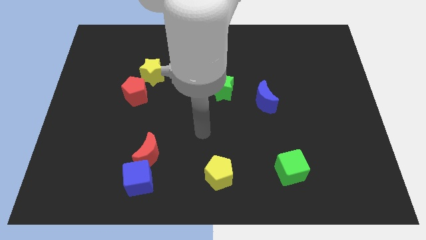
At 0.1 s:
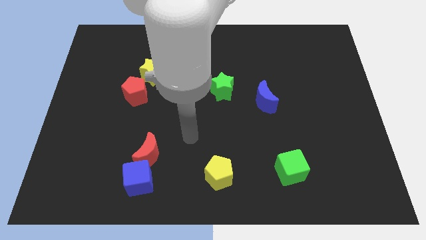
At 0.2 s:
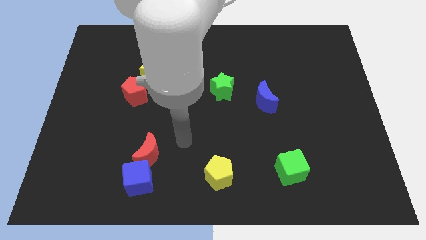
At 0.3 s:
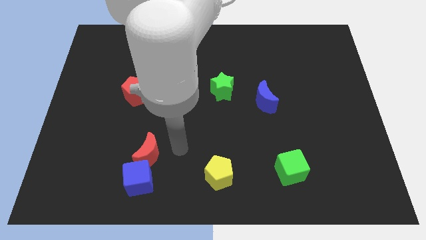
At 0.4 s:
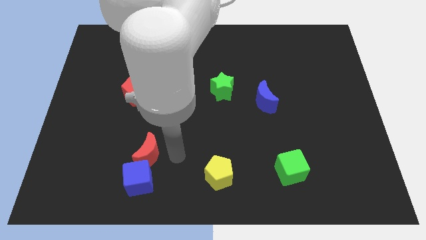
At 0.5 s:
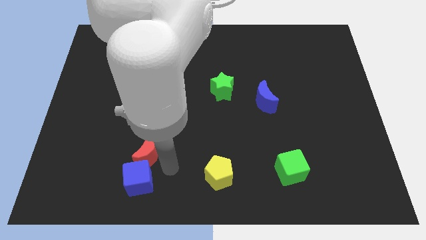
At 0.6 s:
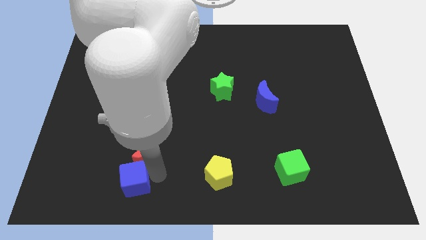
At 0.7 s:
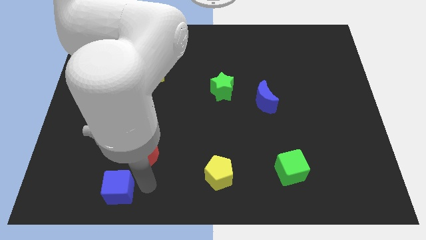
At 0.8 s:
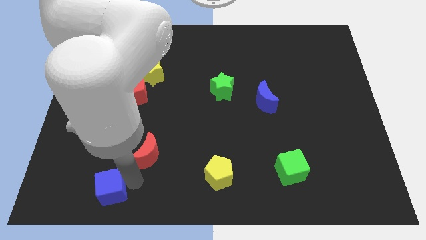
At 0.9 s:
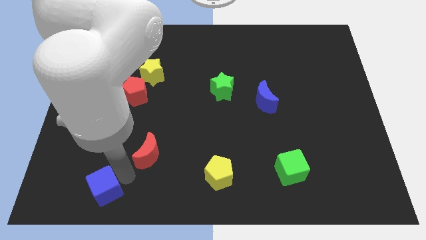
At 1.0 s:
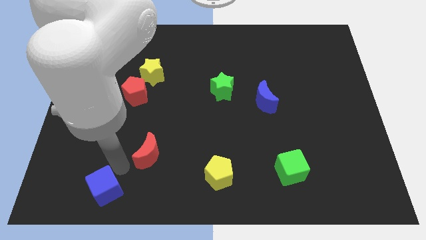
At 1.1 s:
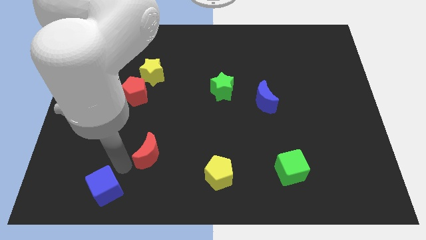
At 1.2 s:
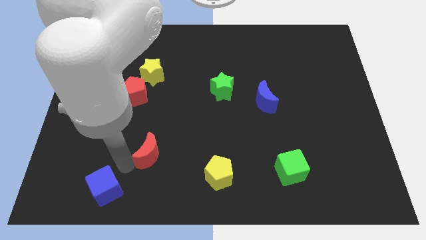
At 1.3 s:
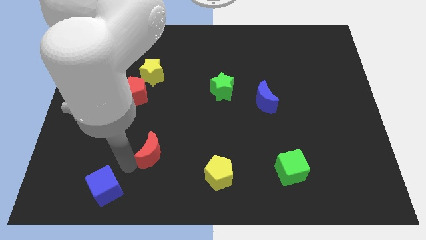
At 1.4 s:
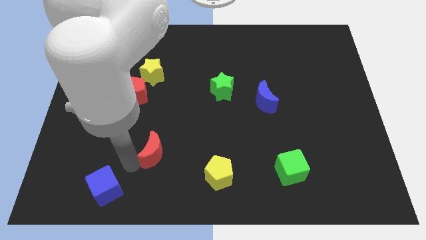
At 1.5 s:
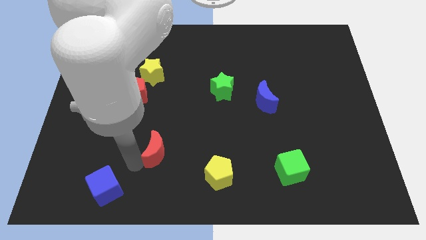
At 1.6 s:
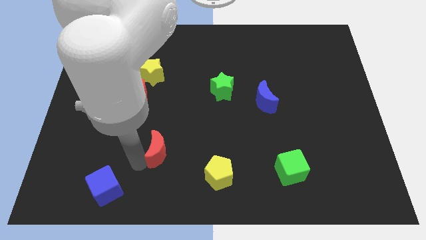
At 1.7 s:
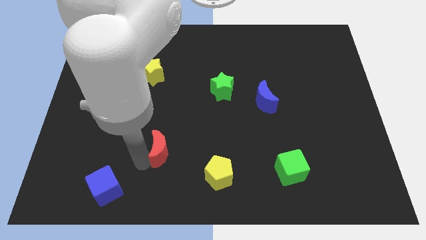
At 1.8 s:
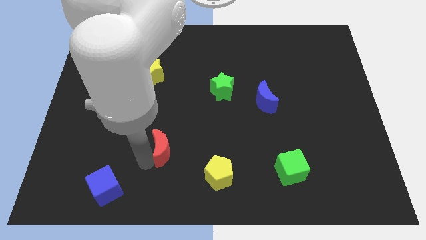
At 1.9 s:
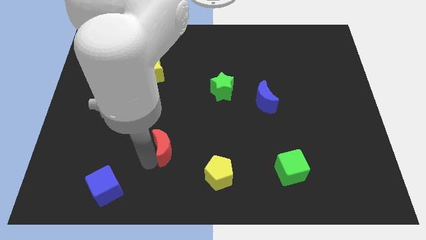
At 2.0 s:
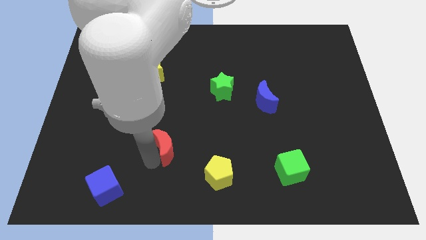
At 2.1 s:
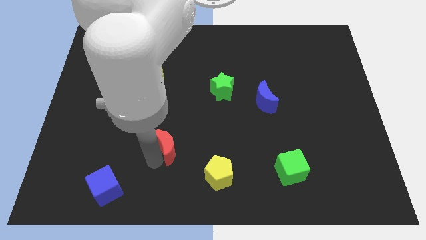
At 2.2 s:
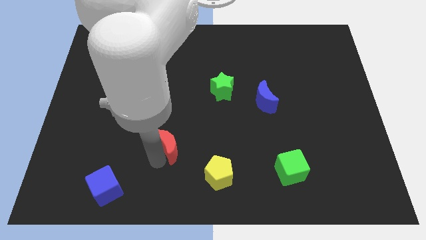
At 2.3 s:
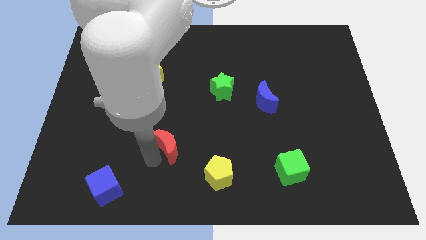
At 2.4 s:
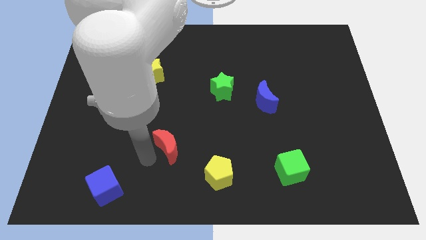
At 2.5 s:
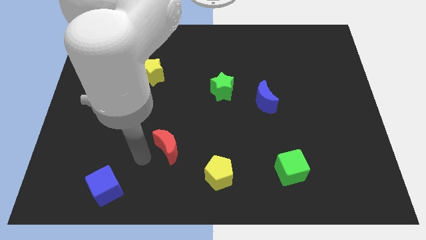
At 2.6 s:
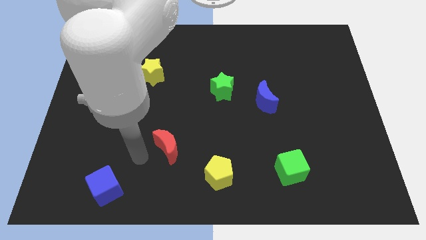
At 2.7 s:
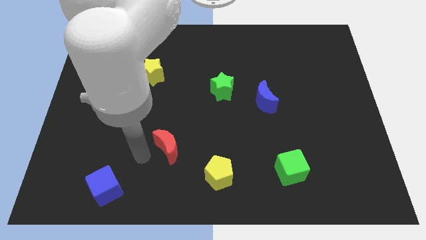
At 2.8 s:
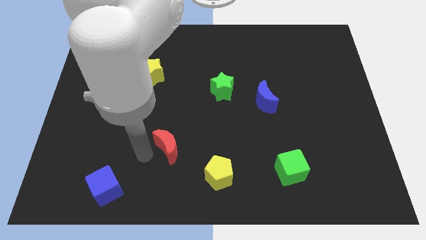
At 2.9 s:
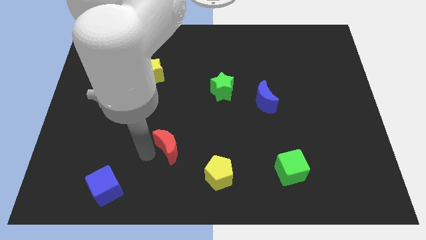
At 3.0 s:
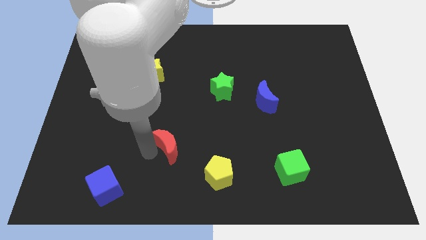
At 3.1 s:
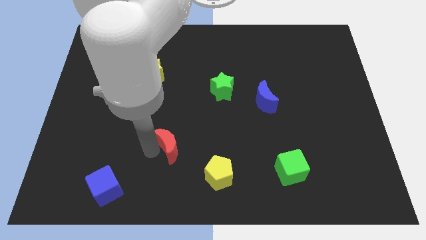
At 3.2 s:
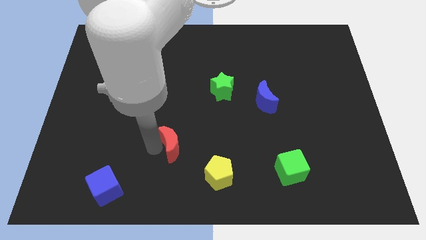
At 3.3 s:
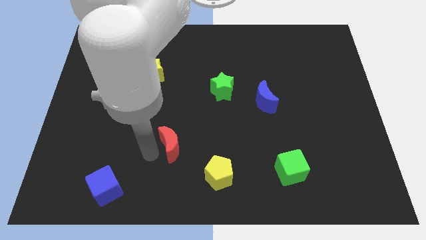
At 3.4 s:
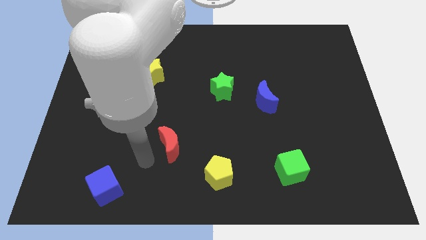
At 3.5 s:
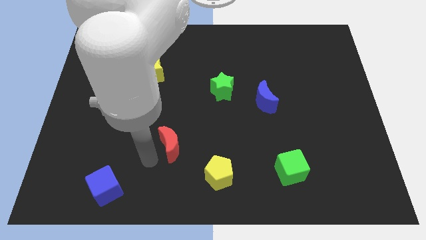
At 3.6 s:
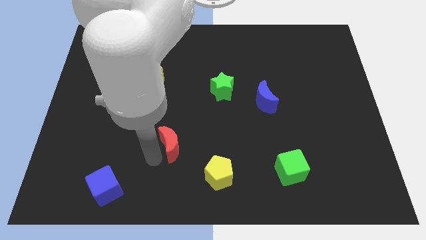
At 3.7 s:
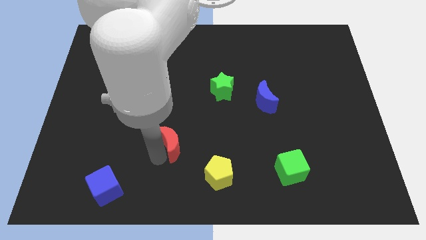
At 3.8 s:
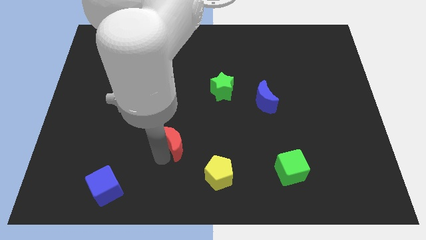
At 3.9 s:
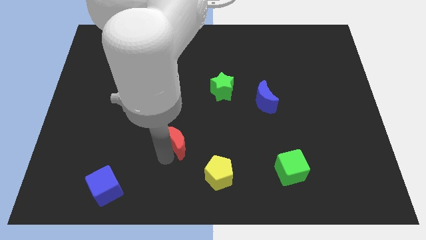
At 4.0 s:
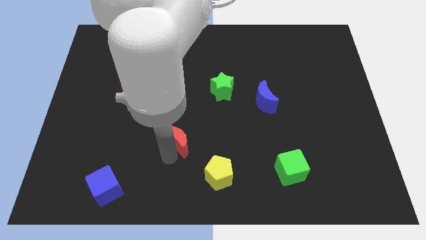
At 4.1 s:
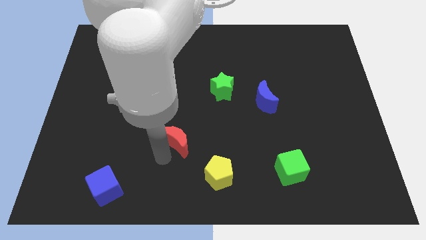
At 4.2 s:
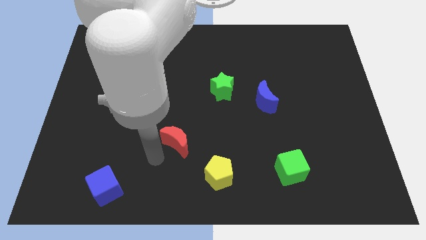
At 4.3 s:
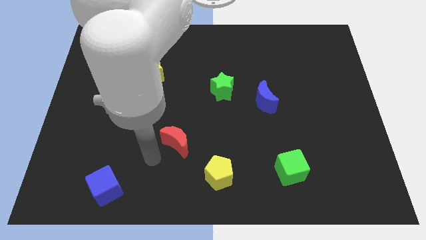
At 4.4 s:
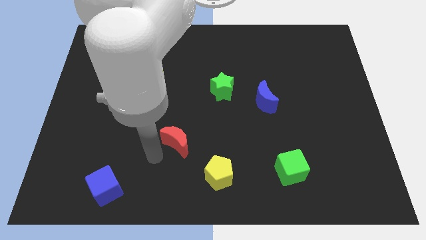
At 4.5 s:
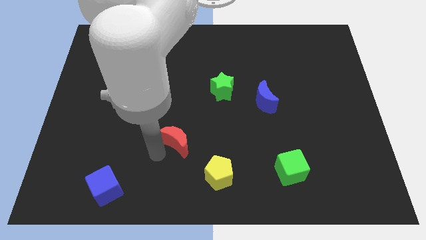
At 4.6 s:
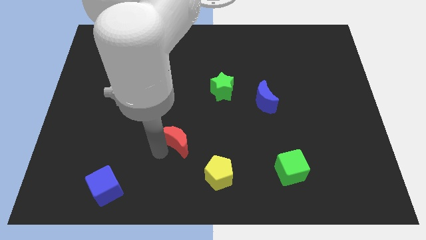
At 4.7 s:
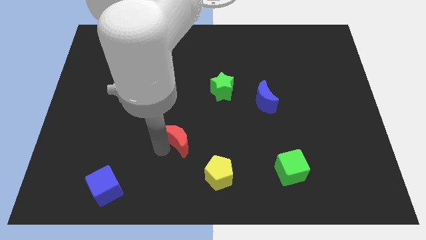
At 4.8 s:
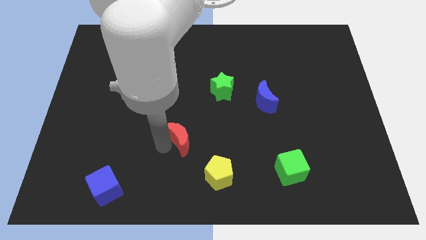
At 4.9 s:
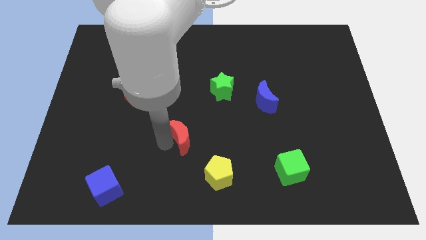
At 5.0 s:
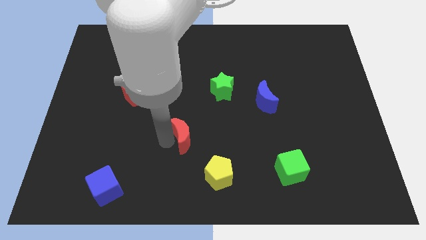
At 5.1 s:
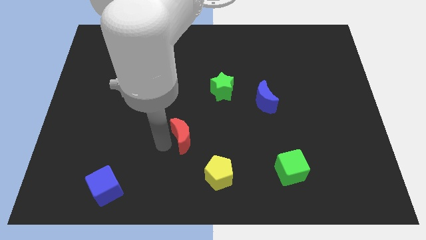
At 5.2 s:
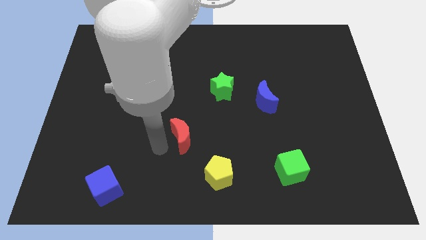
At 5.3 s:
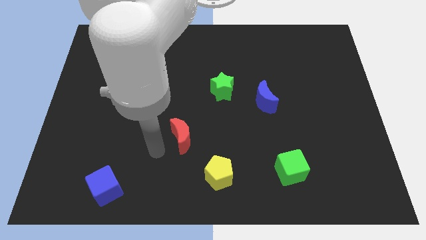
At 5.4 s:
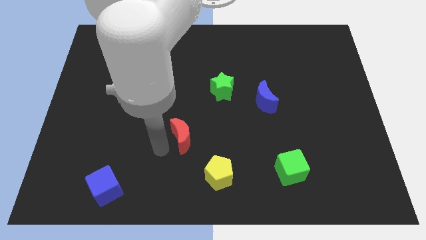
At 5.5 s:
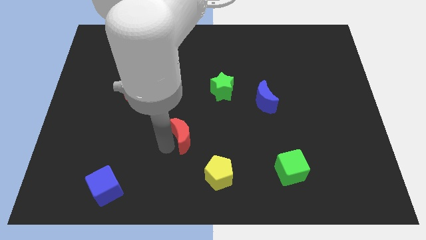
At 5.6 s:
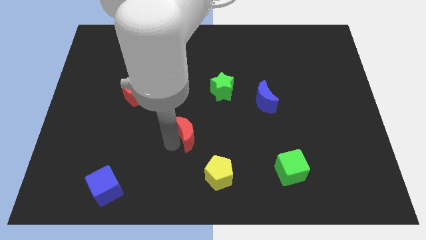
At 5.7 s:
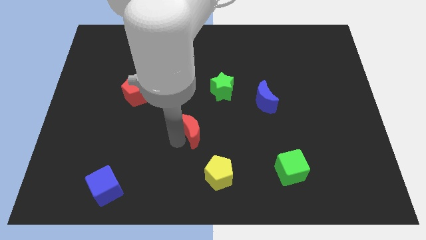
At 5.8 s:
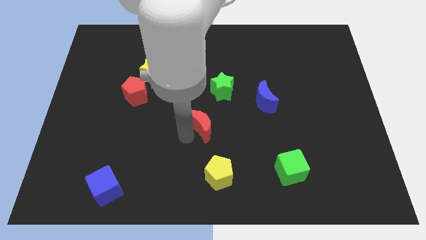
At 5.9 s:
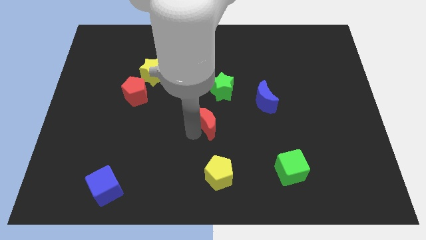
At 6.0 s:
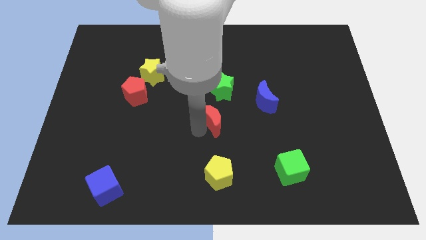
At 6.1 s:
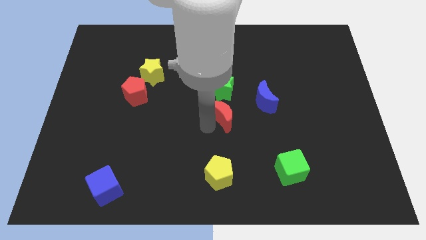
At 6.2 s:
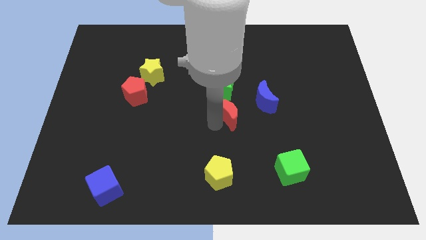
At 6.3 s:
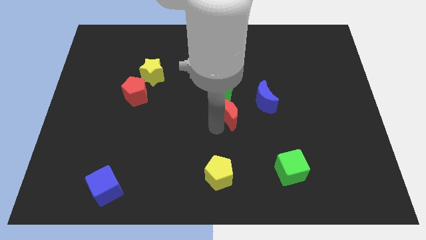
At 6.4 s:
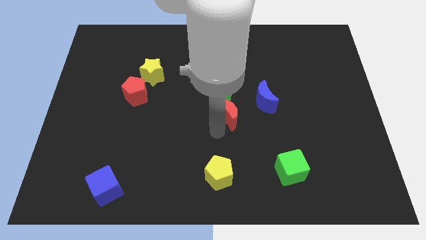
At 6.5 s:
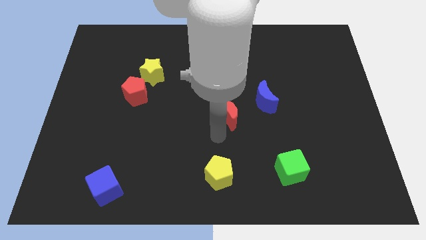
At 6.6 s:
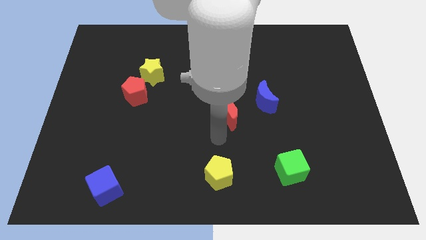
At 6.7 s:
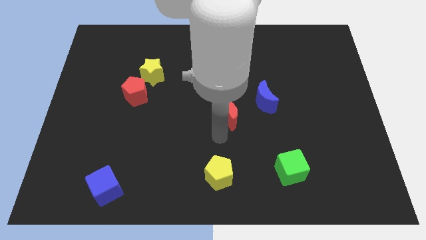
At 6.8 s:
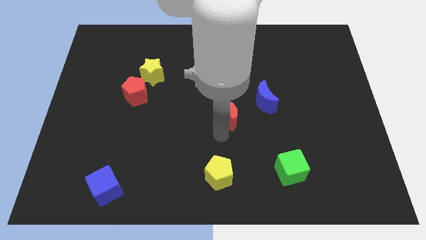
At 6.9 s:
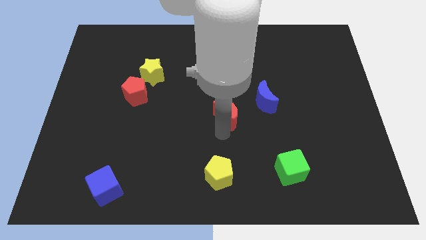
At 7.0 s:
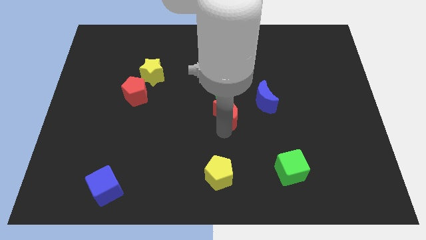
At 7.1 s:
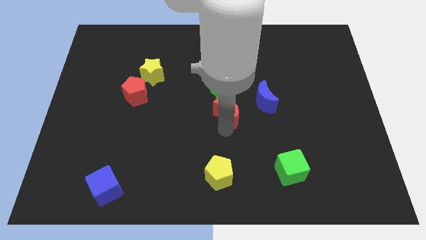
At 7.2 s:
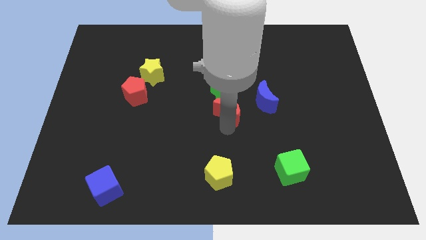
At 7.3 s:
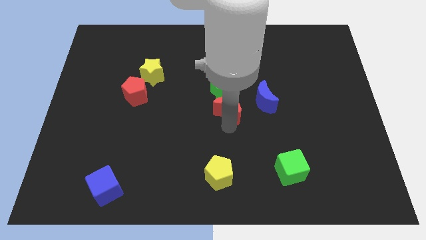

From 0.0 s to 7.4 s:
push the red moon up and right

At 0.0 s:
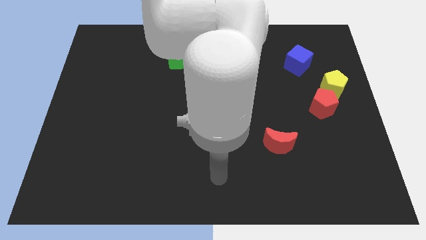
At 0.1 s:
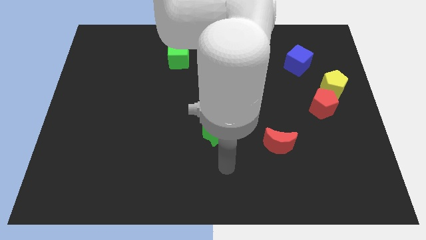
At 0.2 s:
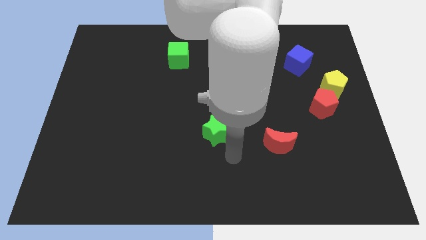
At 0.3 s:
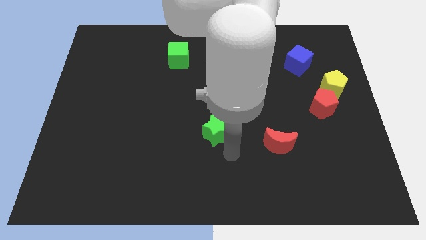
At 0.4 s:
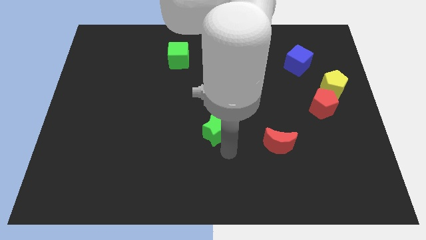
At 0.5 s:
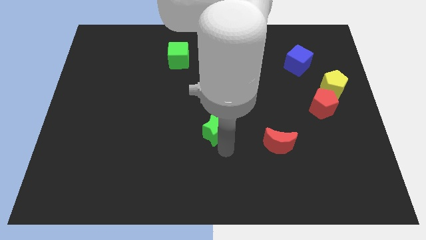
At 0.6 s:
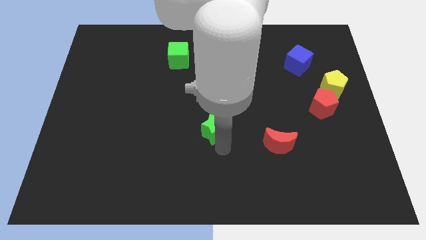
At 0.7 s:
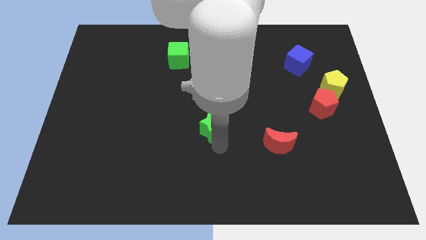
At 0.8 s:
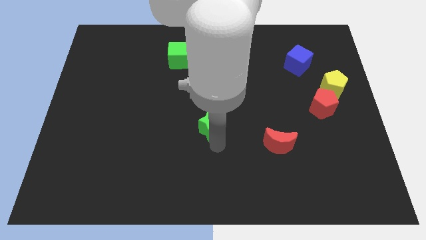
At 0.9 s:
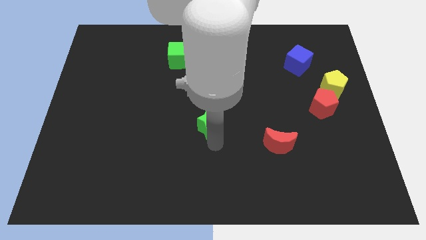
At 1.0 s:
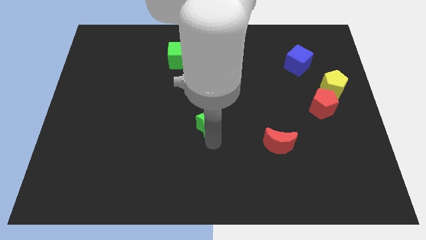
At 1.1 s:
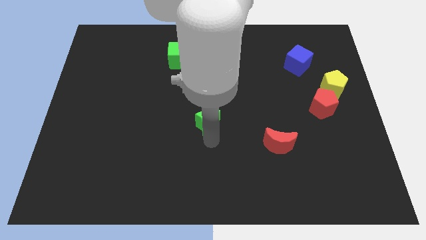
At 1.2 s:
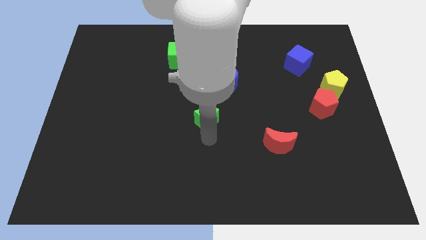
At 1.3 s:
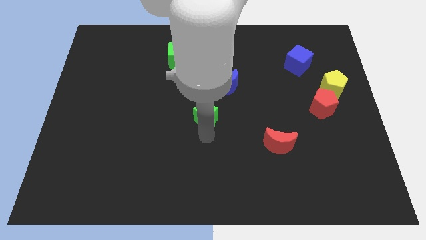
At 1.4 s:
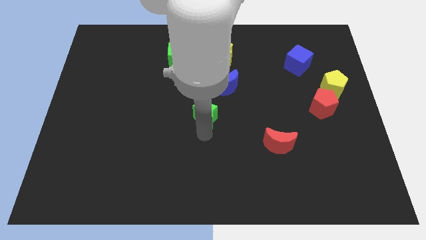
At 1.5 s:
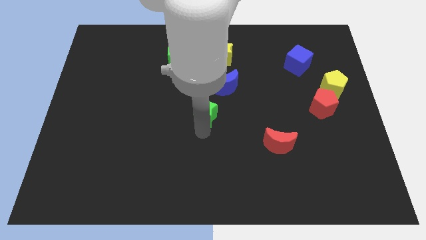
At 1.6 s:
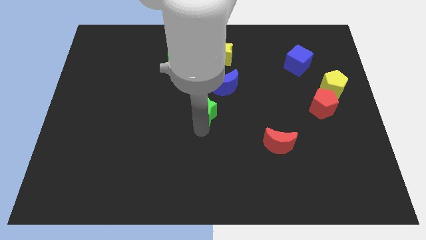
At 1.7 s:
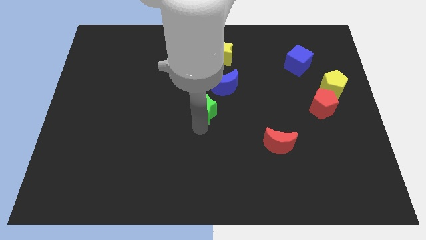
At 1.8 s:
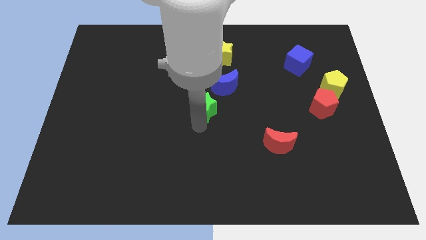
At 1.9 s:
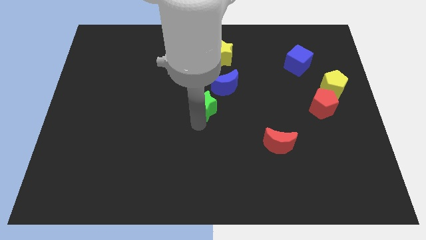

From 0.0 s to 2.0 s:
slide the green star slightly up
